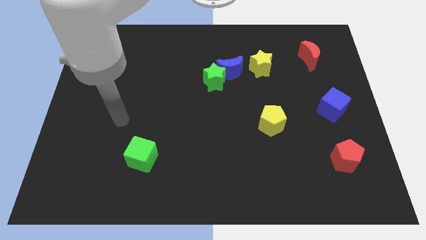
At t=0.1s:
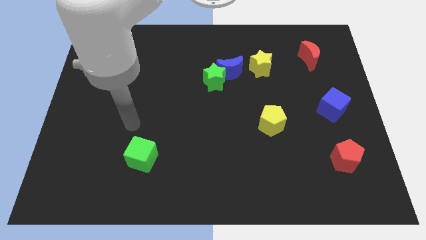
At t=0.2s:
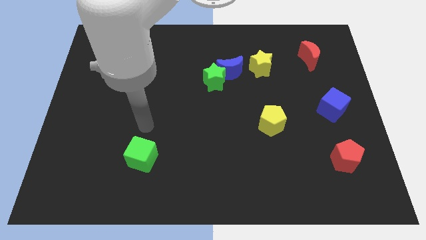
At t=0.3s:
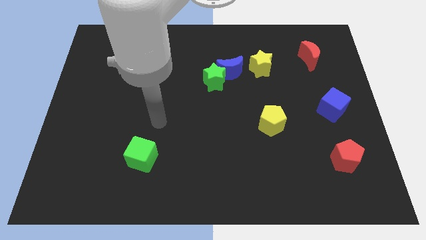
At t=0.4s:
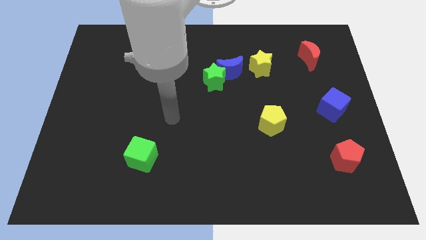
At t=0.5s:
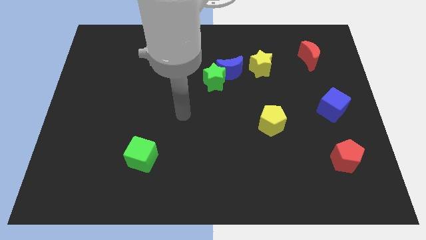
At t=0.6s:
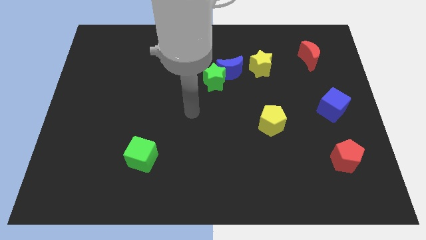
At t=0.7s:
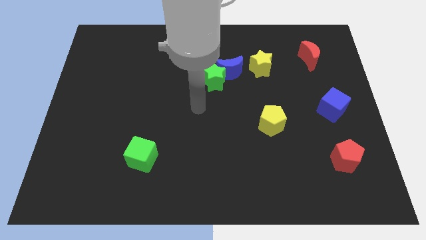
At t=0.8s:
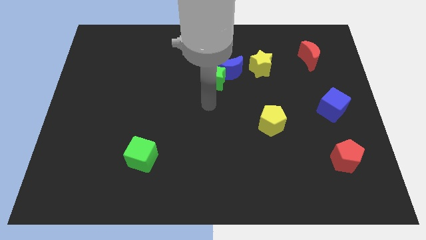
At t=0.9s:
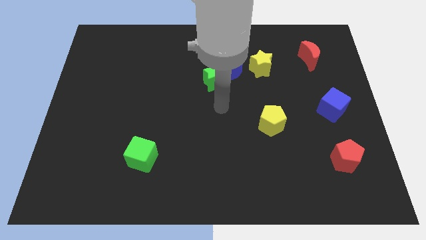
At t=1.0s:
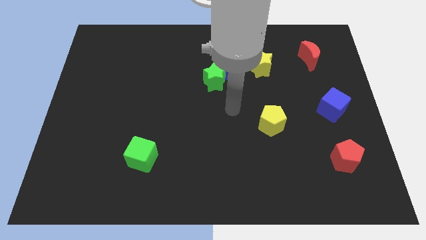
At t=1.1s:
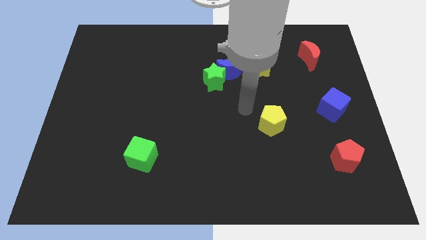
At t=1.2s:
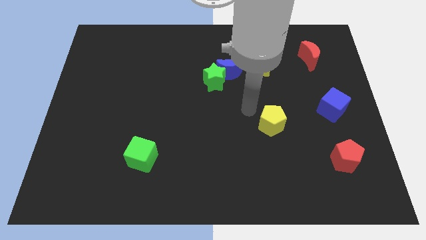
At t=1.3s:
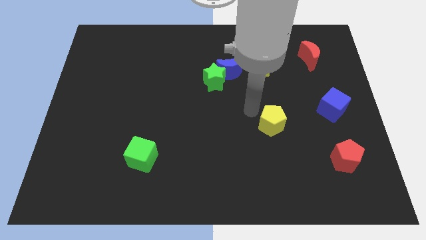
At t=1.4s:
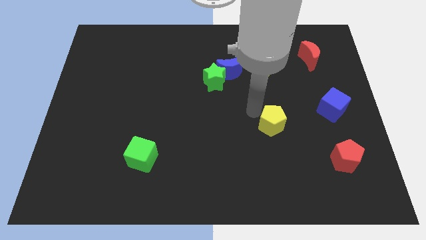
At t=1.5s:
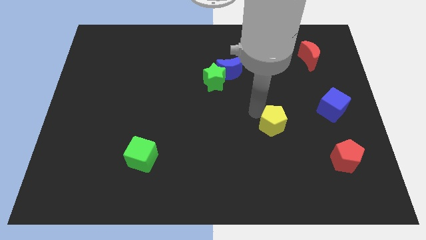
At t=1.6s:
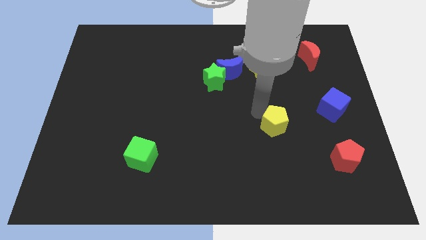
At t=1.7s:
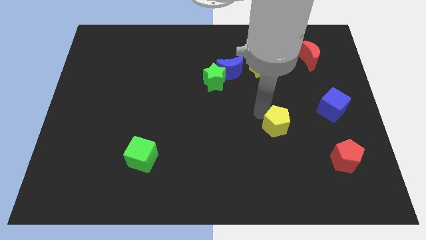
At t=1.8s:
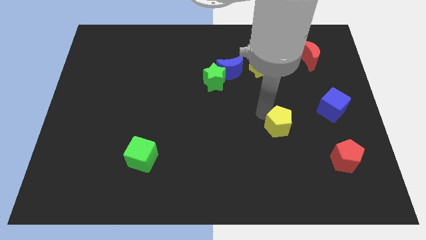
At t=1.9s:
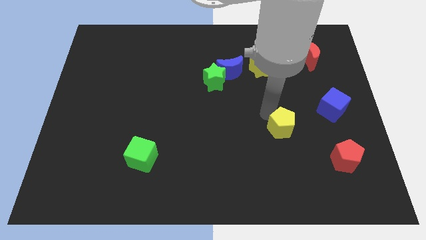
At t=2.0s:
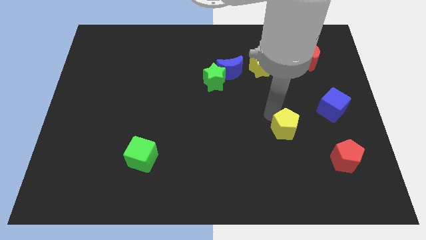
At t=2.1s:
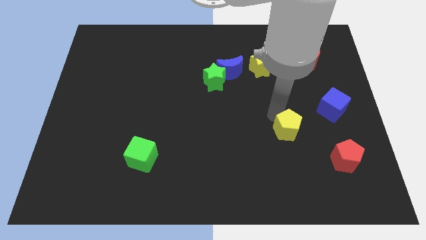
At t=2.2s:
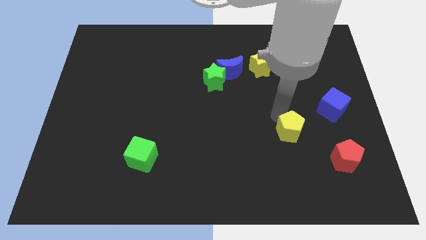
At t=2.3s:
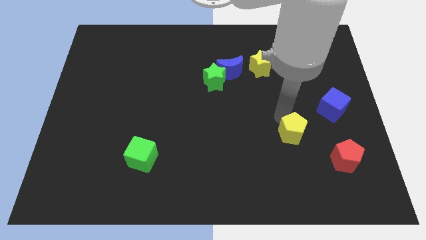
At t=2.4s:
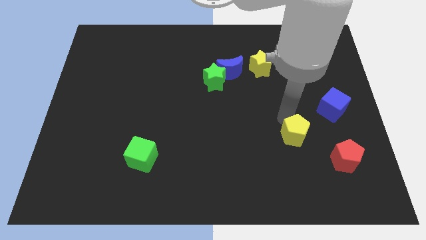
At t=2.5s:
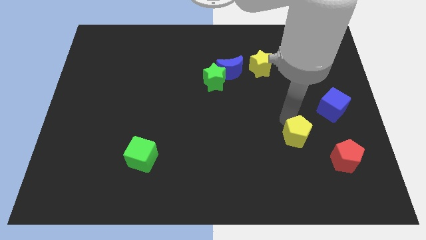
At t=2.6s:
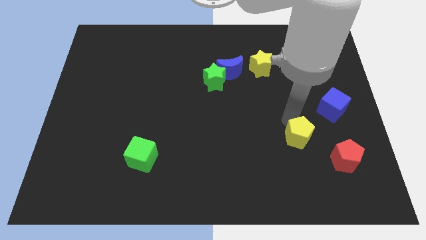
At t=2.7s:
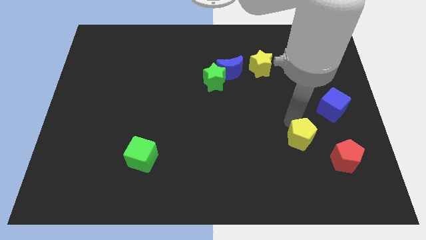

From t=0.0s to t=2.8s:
slightly push the yellow pentagon diagonally down and to the right

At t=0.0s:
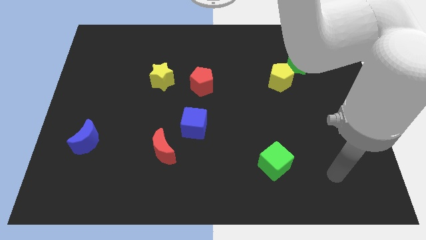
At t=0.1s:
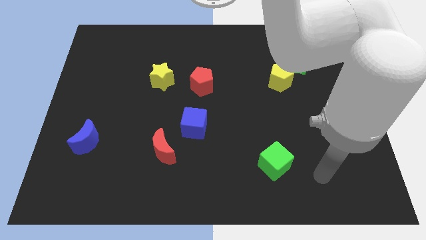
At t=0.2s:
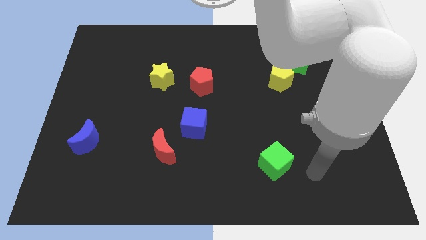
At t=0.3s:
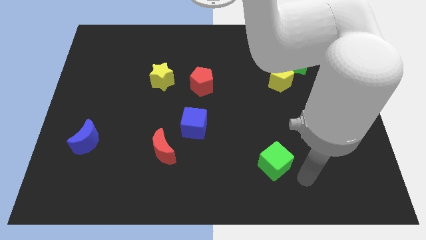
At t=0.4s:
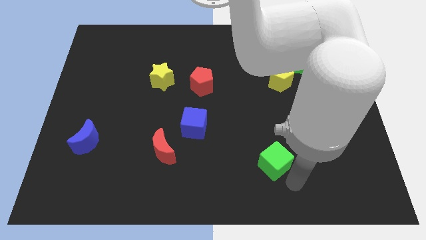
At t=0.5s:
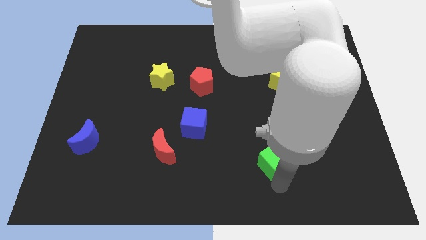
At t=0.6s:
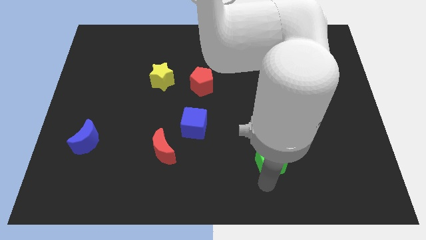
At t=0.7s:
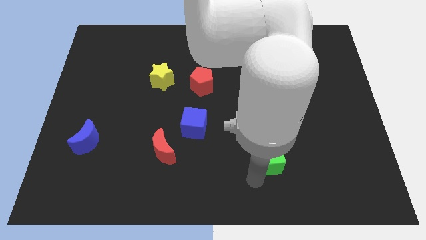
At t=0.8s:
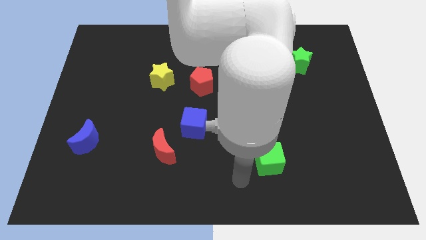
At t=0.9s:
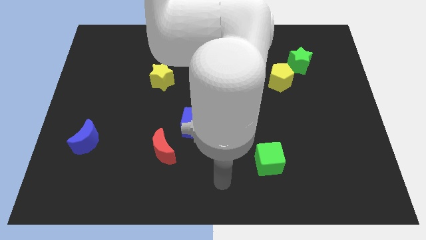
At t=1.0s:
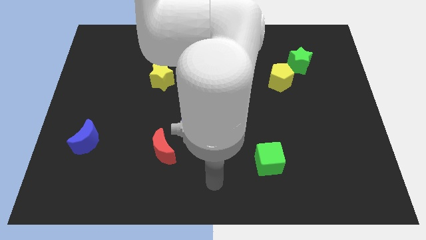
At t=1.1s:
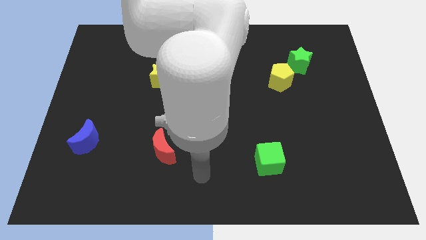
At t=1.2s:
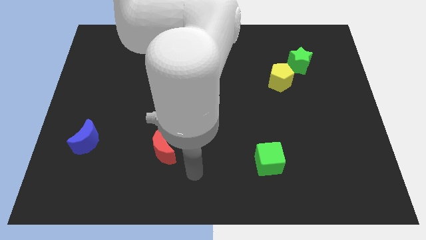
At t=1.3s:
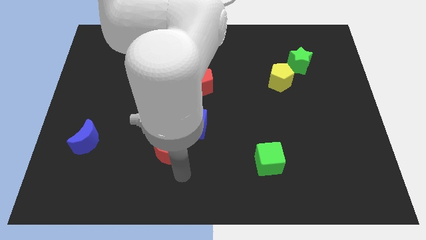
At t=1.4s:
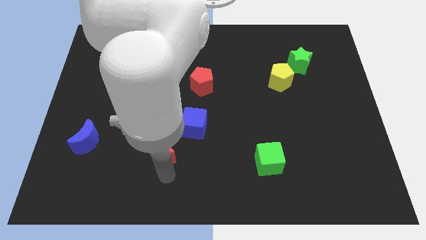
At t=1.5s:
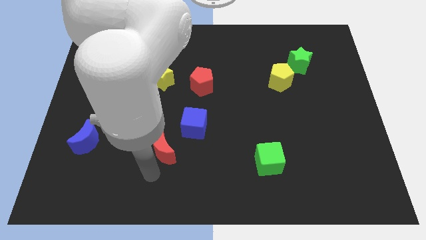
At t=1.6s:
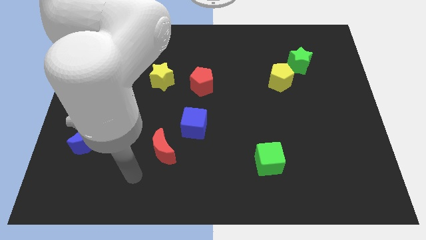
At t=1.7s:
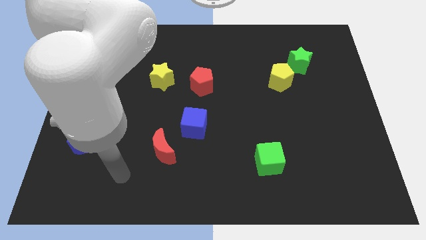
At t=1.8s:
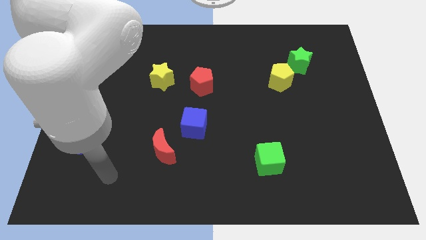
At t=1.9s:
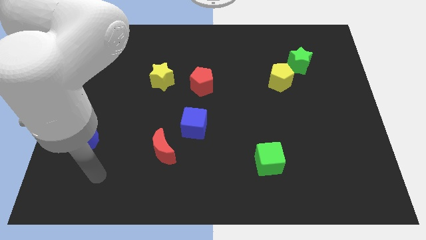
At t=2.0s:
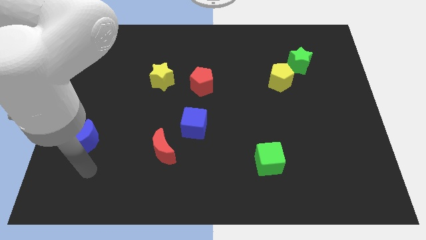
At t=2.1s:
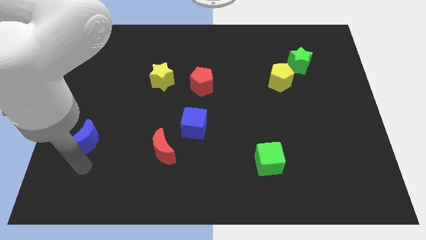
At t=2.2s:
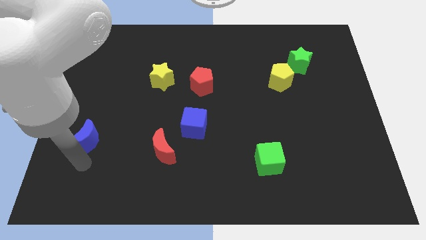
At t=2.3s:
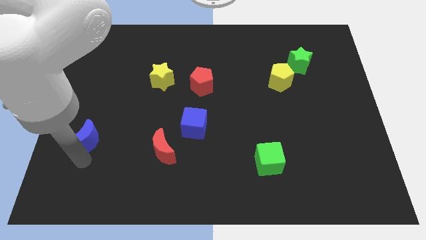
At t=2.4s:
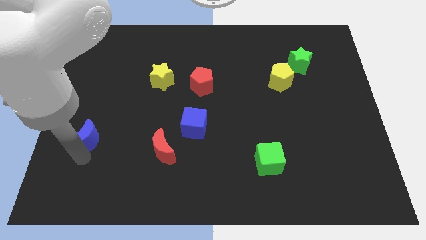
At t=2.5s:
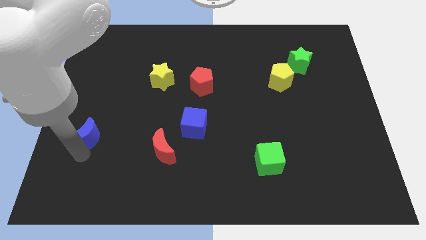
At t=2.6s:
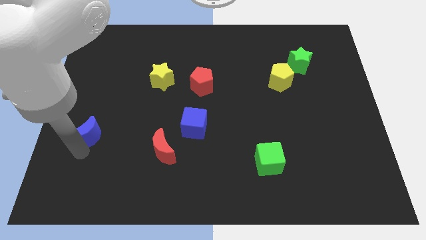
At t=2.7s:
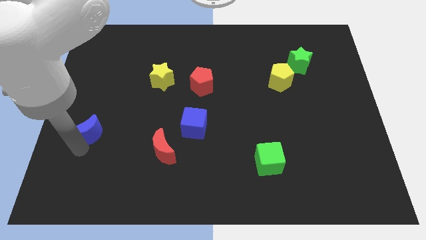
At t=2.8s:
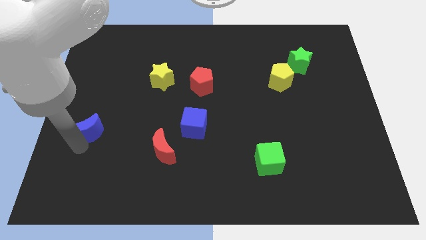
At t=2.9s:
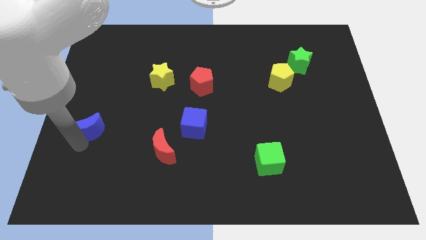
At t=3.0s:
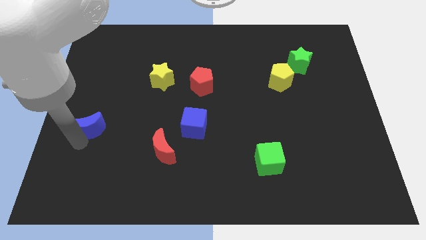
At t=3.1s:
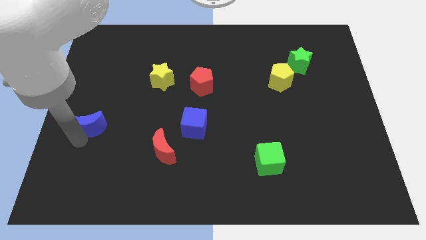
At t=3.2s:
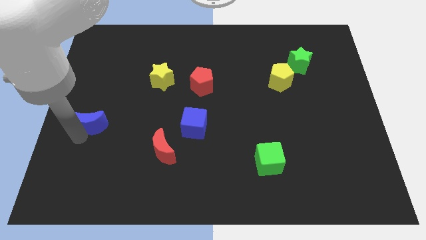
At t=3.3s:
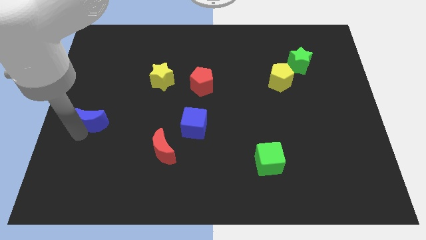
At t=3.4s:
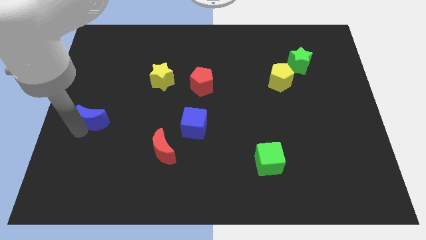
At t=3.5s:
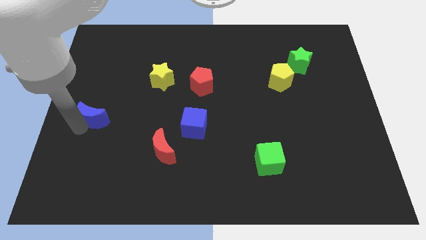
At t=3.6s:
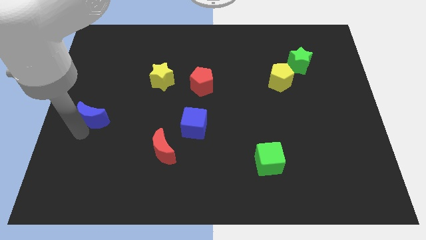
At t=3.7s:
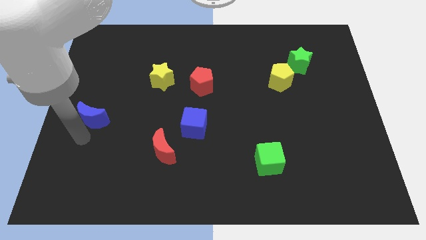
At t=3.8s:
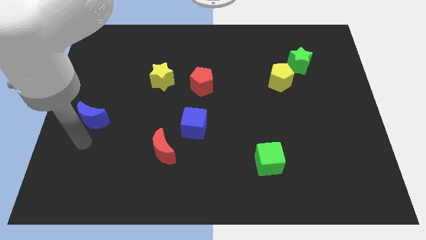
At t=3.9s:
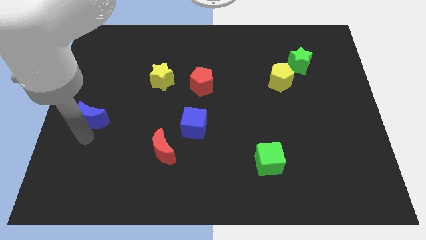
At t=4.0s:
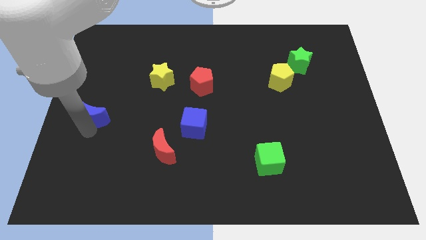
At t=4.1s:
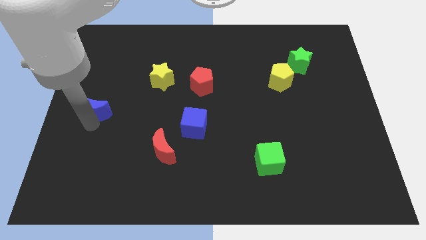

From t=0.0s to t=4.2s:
slightly slide the blue moon upwards

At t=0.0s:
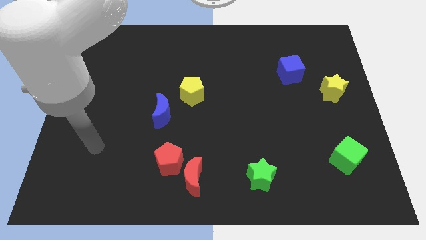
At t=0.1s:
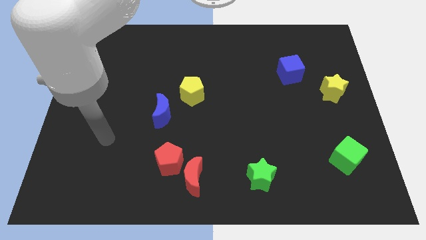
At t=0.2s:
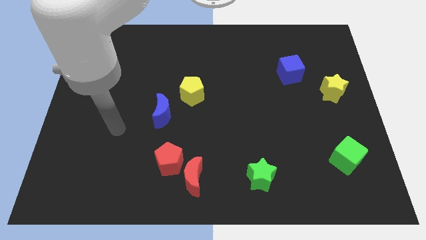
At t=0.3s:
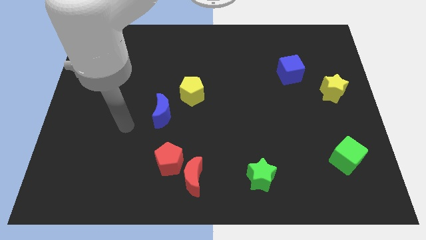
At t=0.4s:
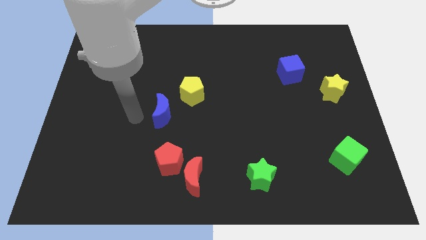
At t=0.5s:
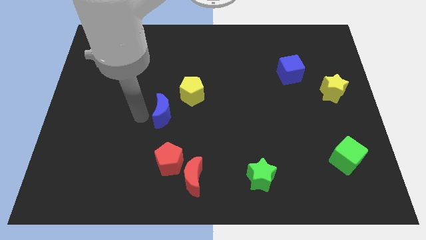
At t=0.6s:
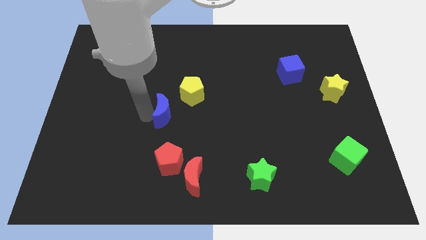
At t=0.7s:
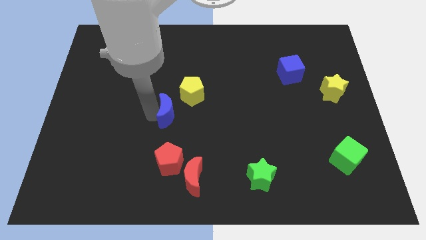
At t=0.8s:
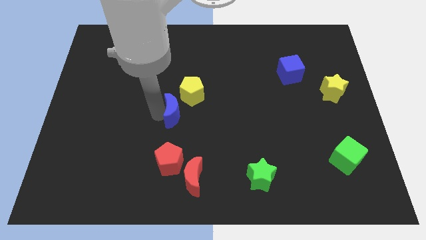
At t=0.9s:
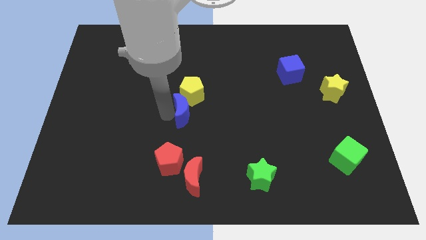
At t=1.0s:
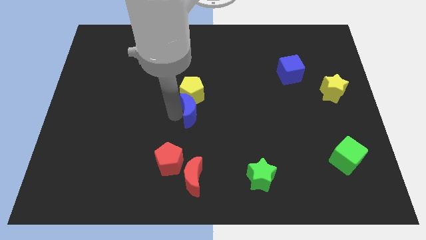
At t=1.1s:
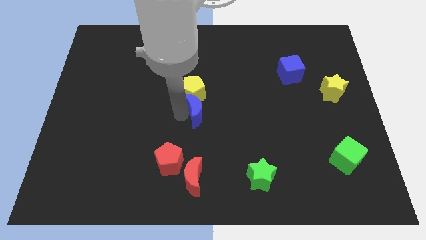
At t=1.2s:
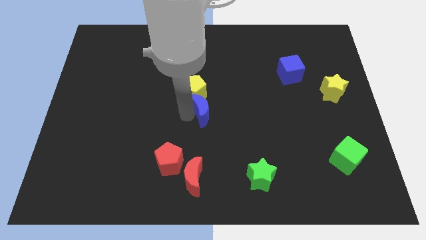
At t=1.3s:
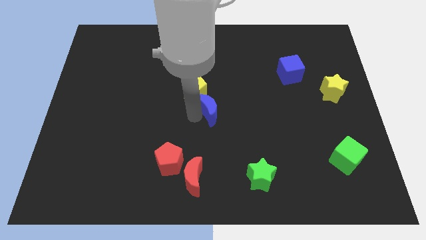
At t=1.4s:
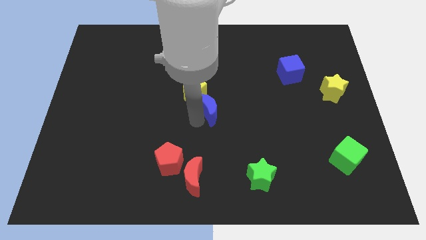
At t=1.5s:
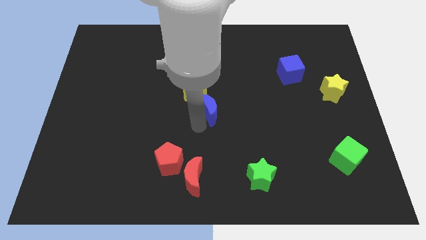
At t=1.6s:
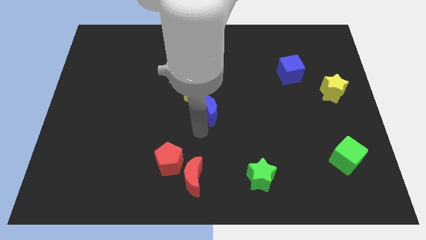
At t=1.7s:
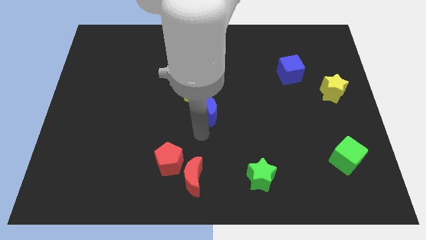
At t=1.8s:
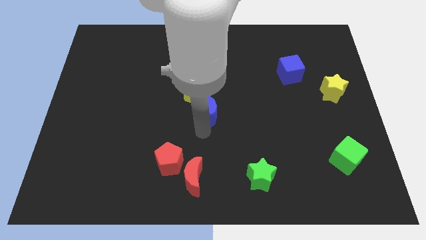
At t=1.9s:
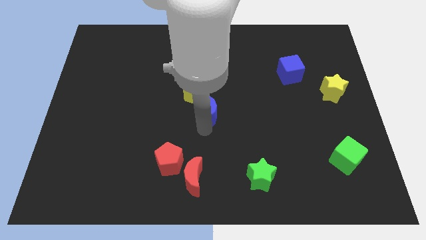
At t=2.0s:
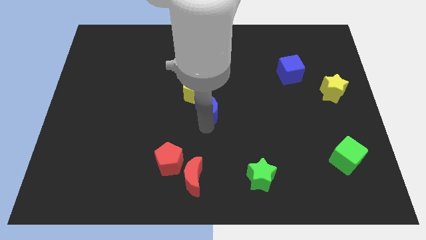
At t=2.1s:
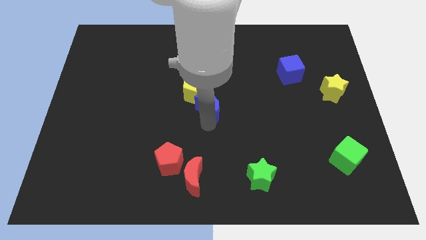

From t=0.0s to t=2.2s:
slightly push the blue moon diagonally up and to the right
